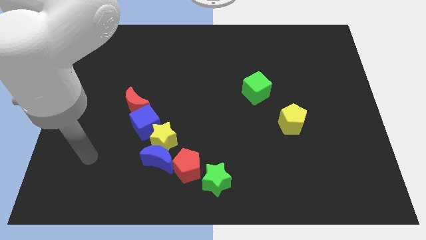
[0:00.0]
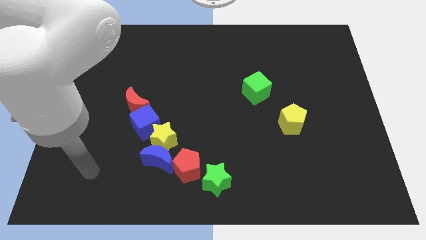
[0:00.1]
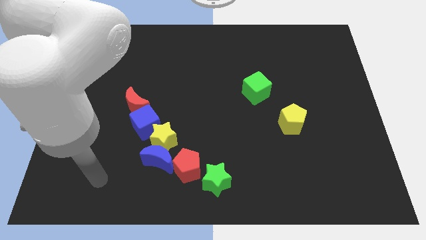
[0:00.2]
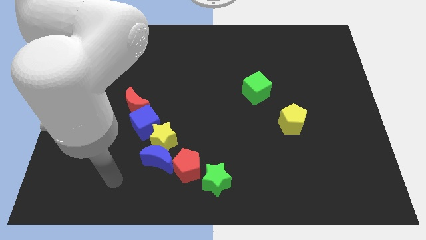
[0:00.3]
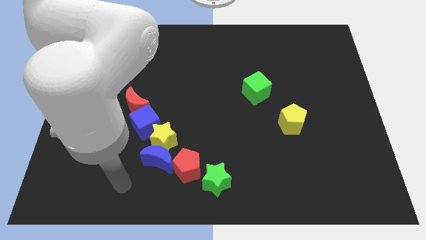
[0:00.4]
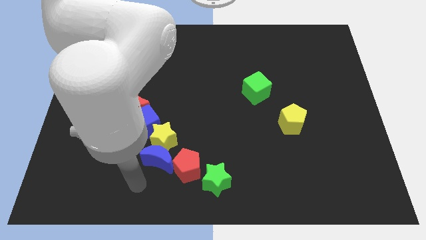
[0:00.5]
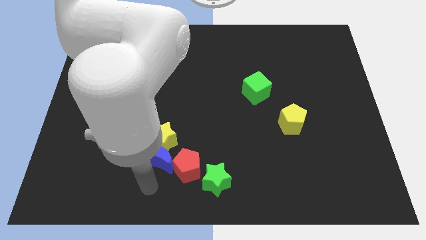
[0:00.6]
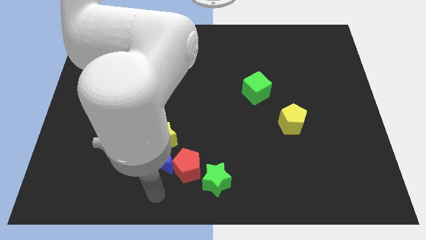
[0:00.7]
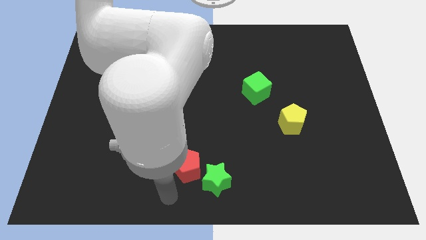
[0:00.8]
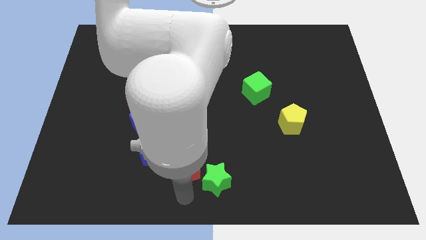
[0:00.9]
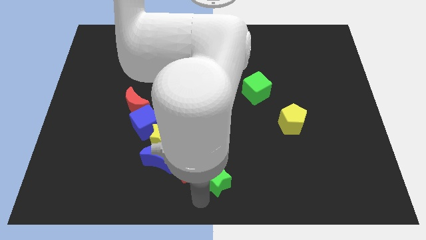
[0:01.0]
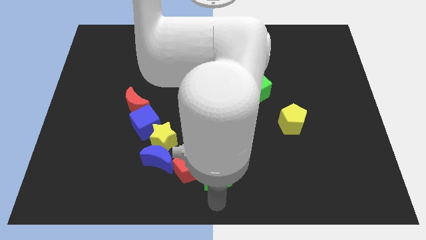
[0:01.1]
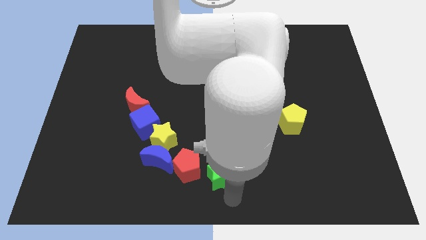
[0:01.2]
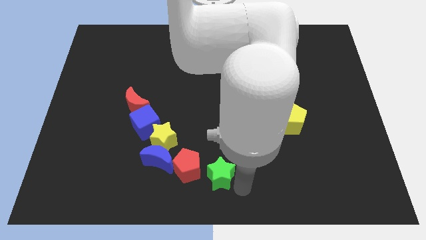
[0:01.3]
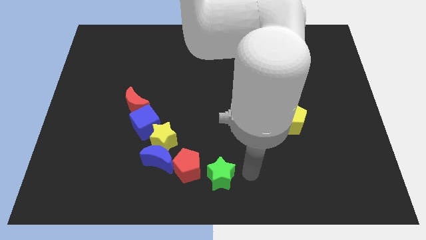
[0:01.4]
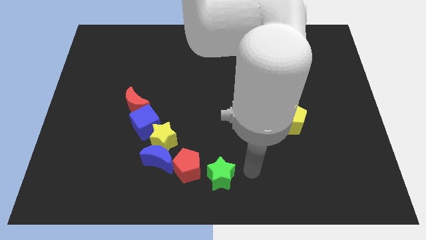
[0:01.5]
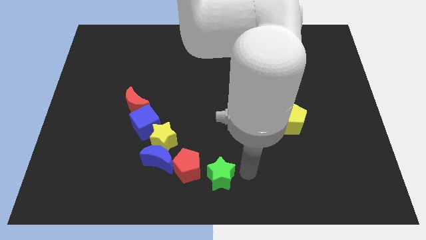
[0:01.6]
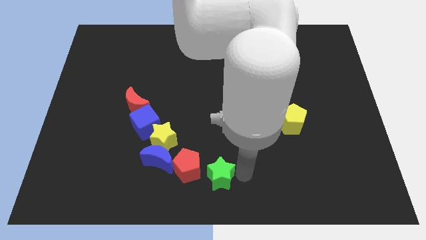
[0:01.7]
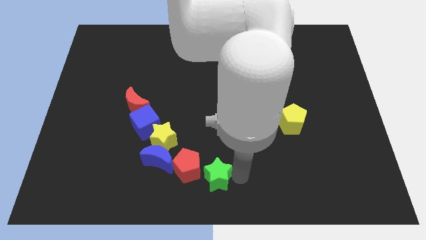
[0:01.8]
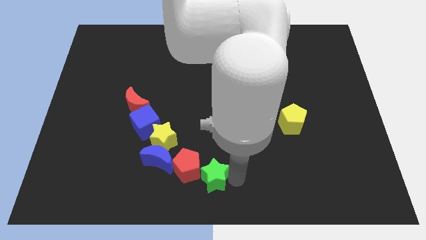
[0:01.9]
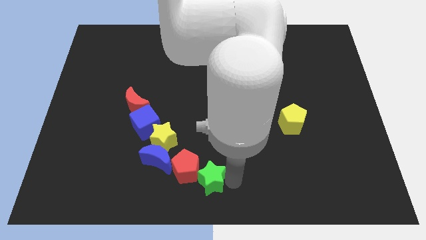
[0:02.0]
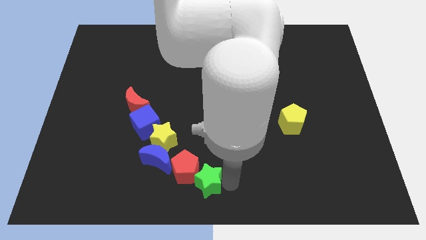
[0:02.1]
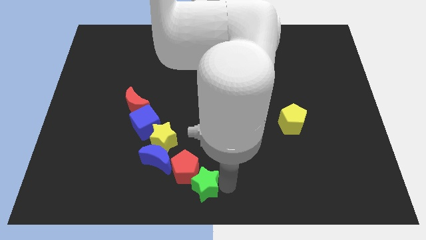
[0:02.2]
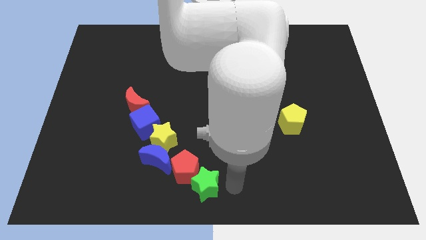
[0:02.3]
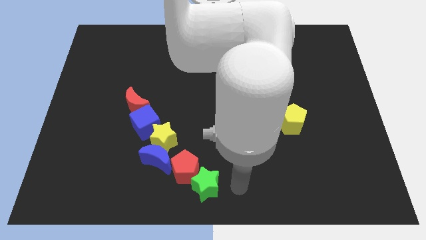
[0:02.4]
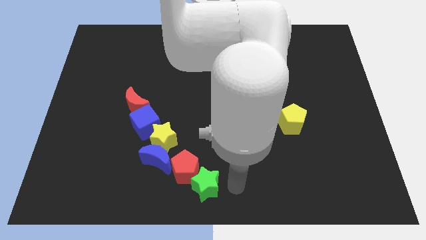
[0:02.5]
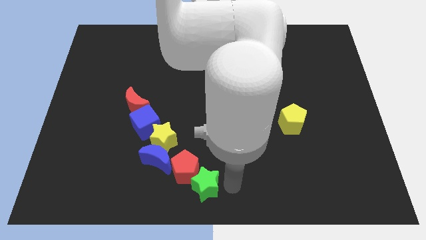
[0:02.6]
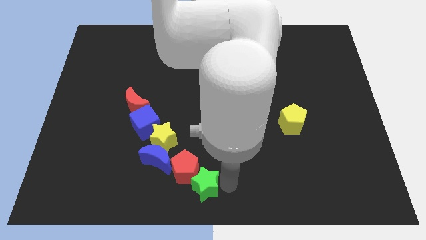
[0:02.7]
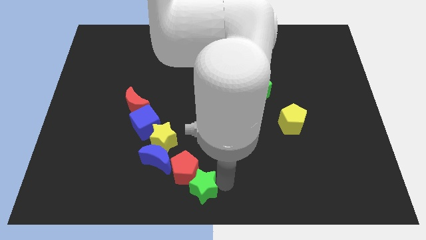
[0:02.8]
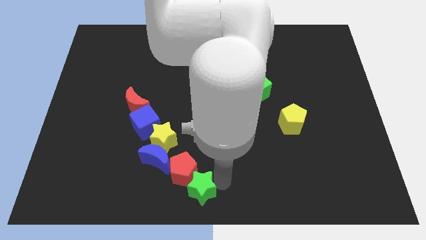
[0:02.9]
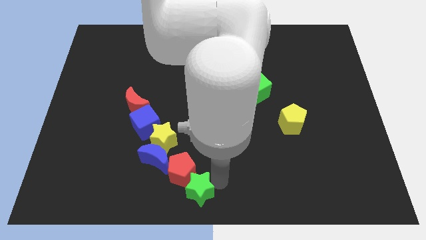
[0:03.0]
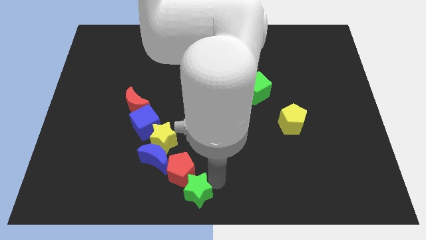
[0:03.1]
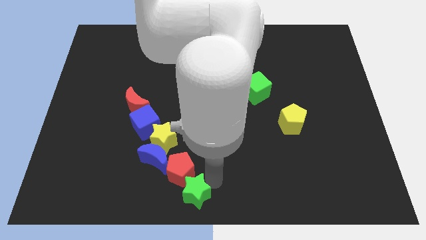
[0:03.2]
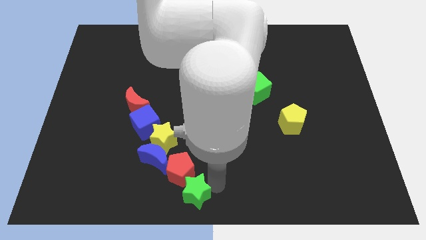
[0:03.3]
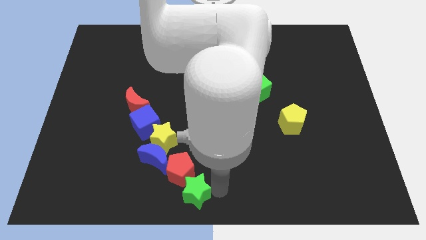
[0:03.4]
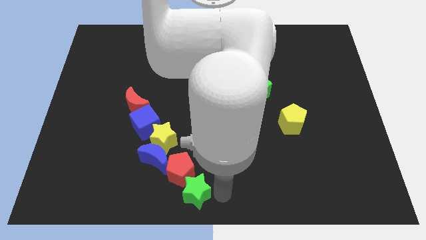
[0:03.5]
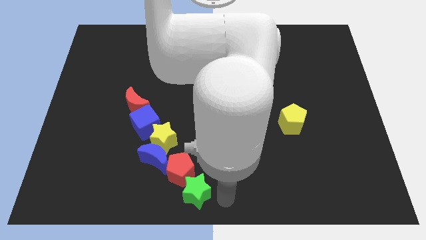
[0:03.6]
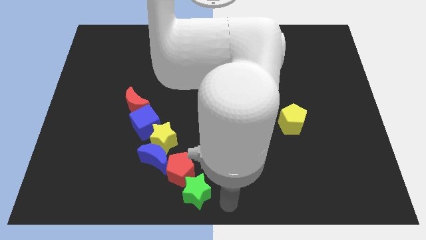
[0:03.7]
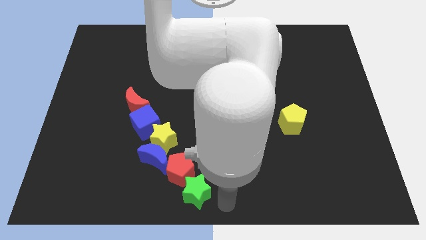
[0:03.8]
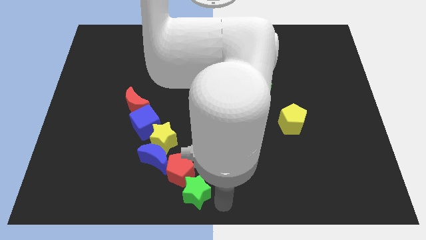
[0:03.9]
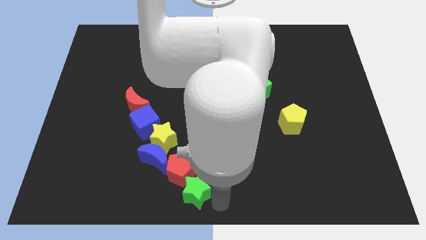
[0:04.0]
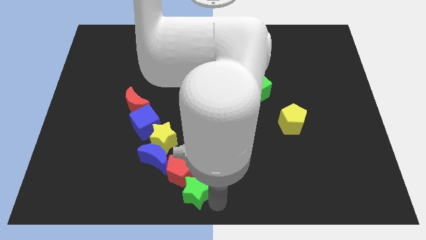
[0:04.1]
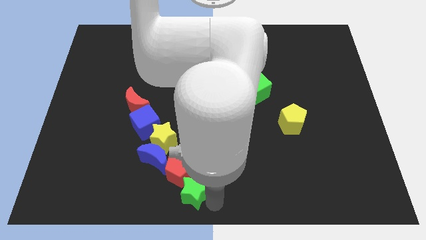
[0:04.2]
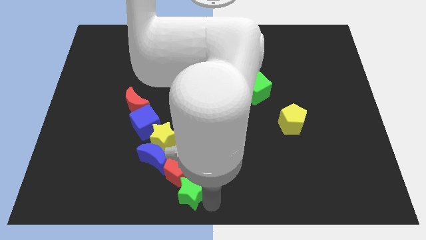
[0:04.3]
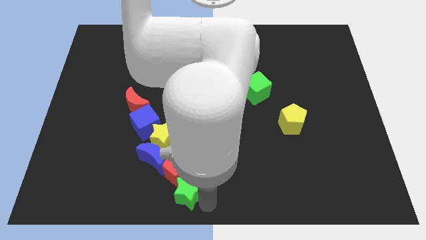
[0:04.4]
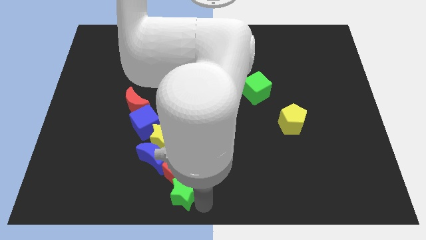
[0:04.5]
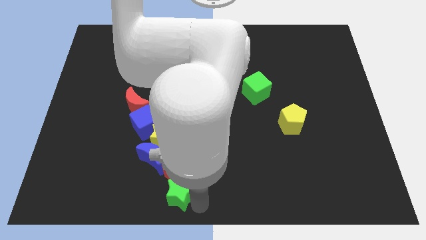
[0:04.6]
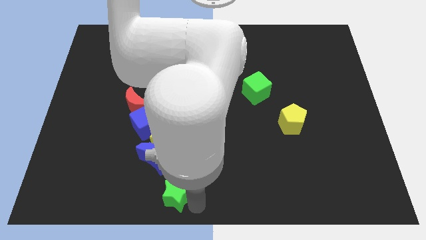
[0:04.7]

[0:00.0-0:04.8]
slightly slide the green star left

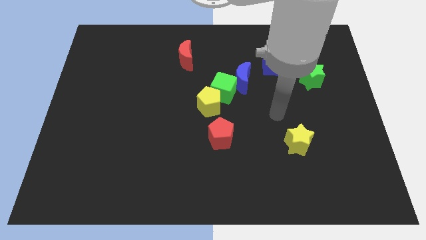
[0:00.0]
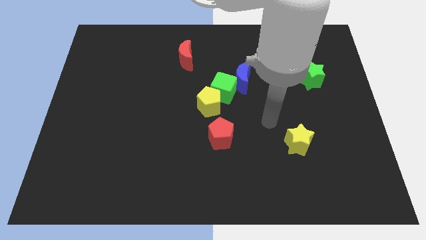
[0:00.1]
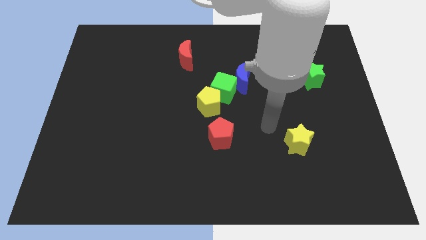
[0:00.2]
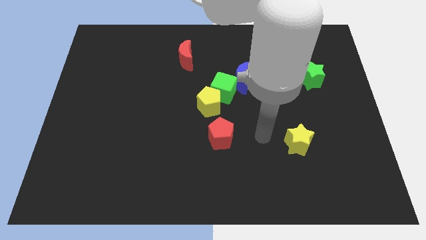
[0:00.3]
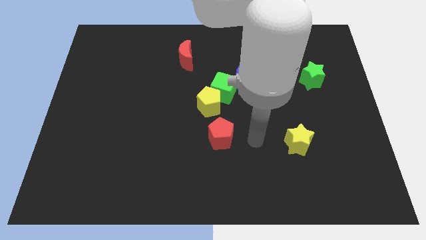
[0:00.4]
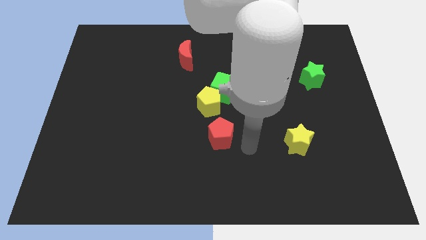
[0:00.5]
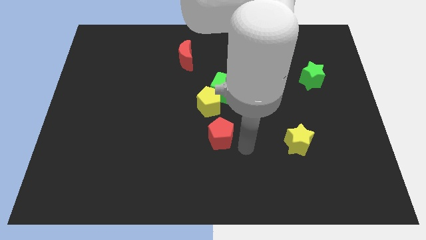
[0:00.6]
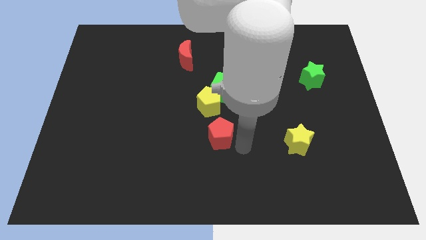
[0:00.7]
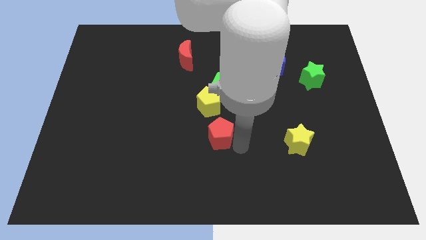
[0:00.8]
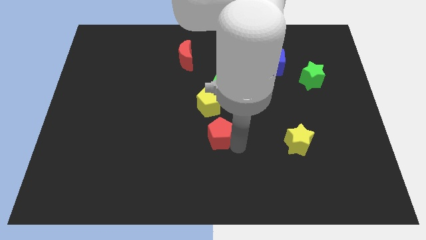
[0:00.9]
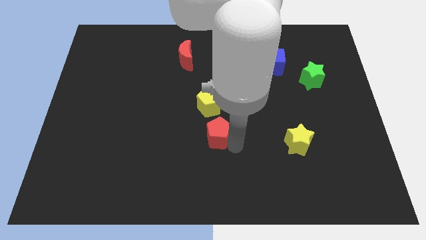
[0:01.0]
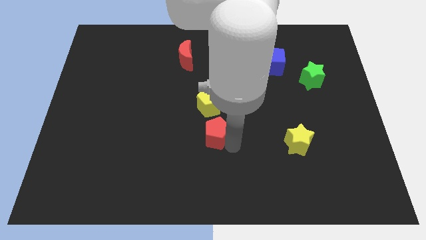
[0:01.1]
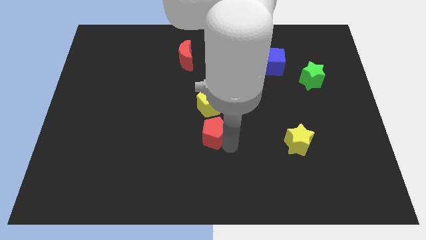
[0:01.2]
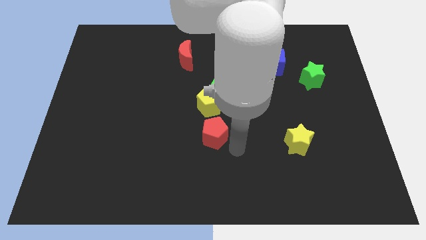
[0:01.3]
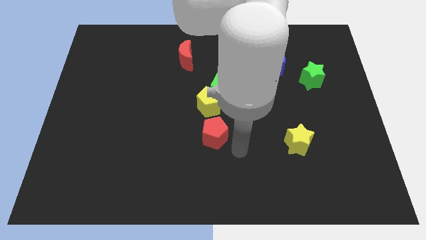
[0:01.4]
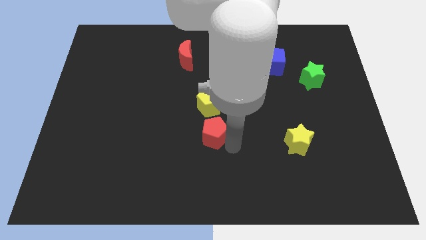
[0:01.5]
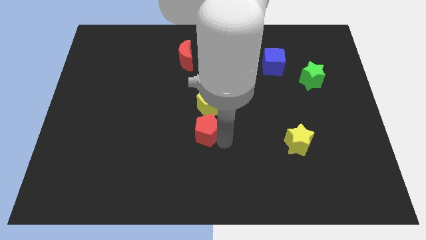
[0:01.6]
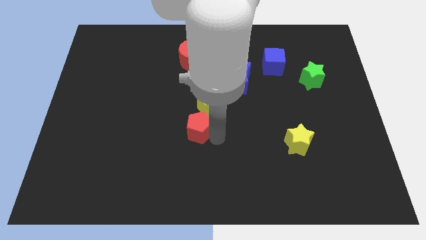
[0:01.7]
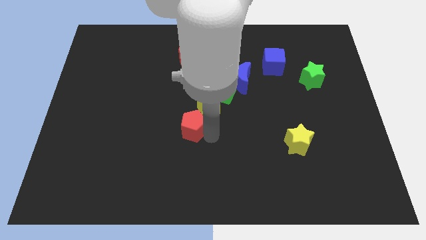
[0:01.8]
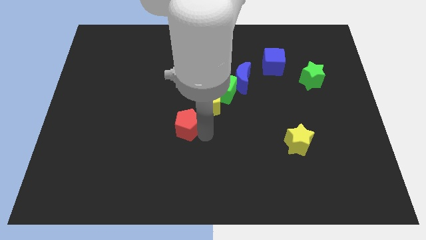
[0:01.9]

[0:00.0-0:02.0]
slightly slide the red pentagon upwards and to the left

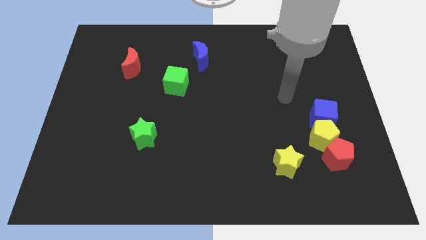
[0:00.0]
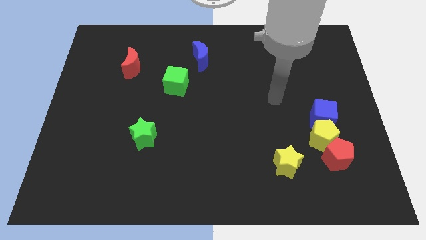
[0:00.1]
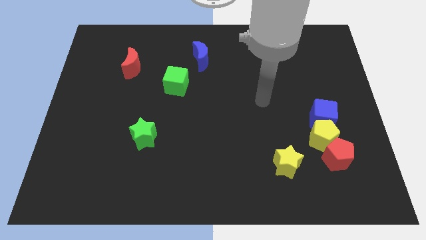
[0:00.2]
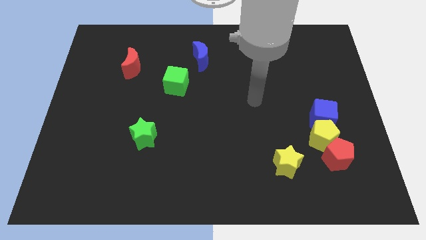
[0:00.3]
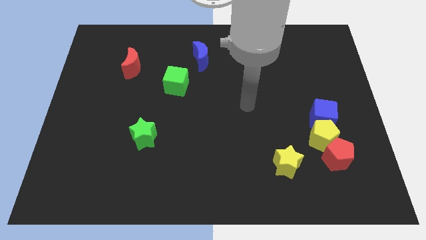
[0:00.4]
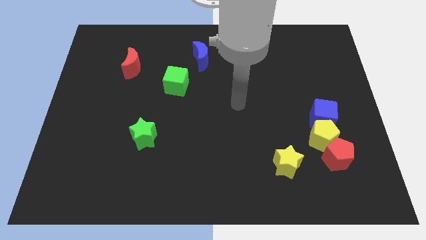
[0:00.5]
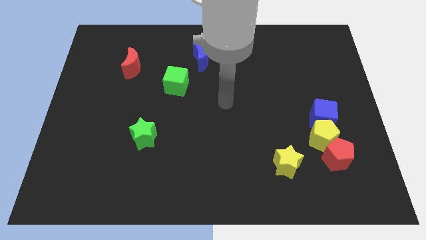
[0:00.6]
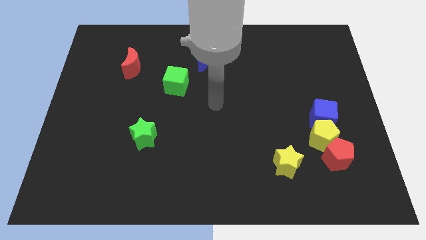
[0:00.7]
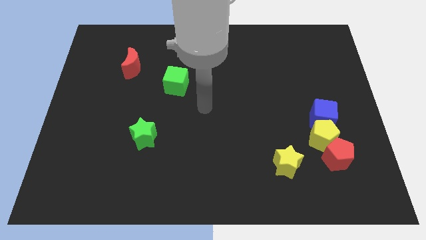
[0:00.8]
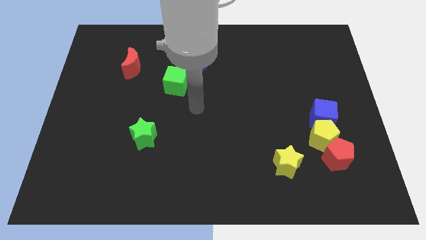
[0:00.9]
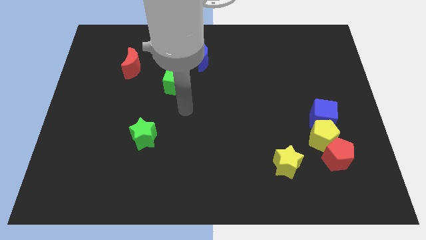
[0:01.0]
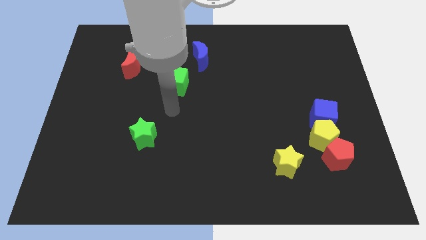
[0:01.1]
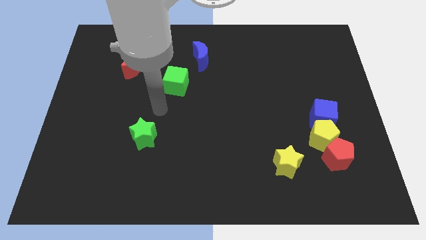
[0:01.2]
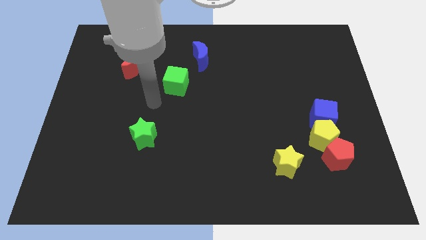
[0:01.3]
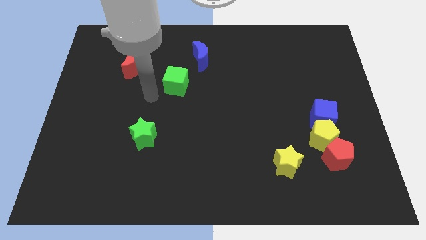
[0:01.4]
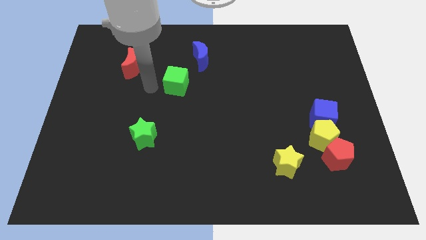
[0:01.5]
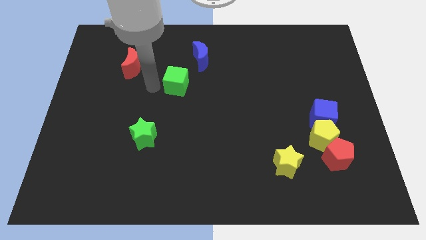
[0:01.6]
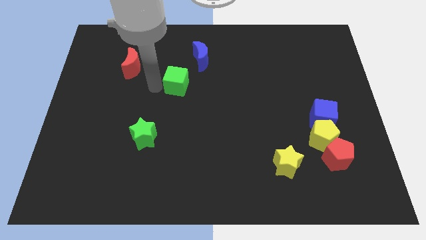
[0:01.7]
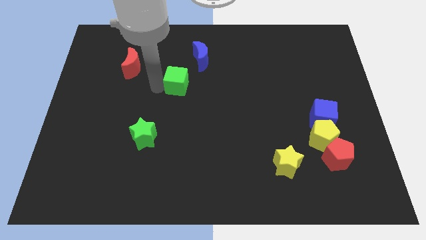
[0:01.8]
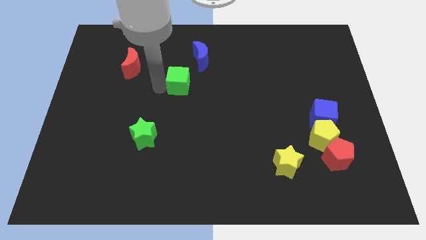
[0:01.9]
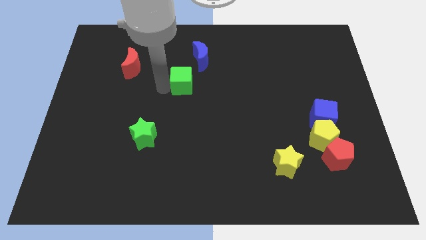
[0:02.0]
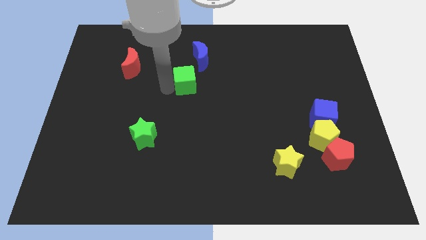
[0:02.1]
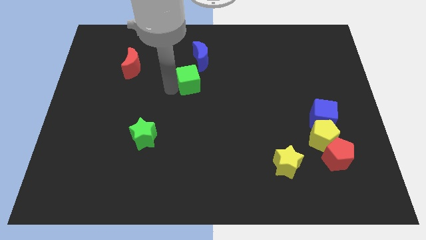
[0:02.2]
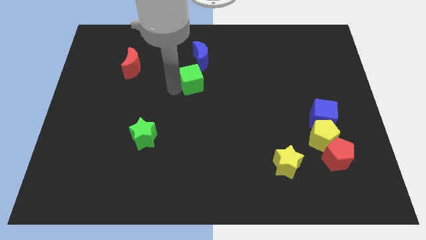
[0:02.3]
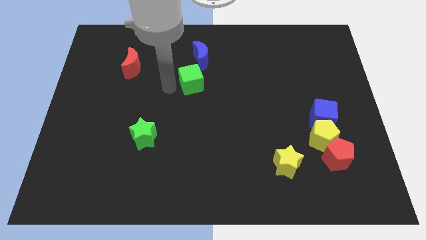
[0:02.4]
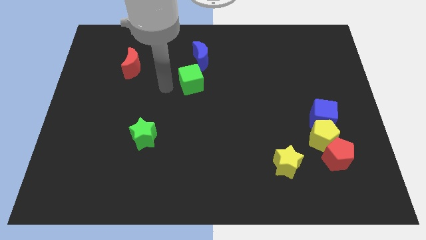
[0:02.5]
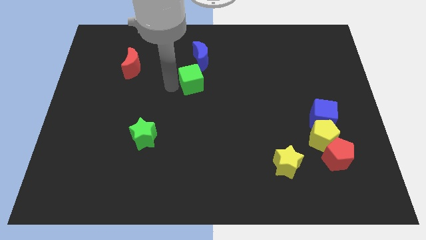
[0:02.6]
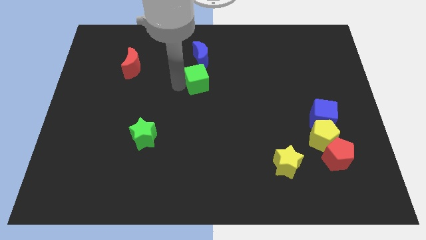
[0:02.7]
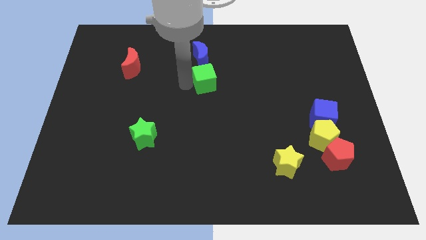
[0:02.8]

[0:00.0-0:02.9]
slide the green cube to the right a little bit
